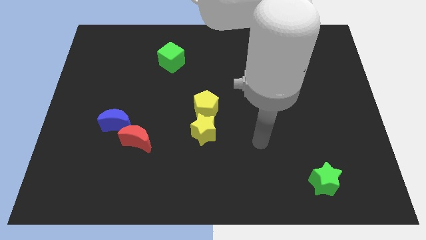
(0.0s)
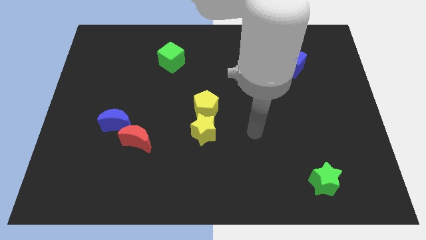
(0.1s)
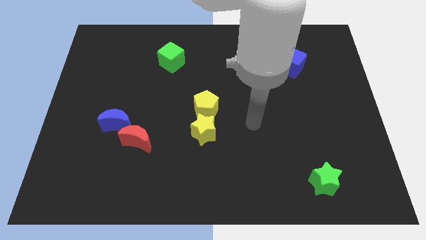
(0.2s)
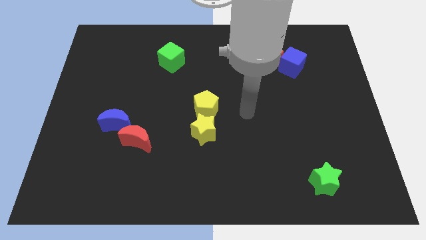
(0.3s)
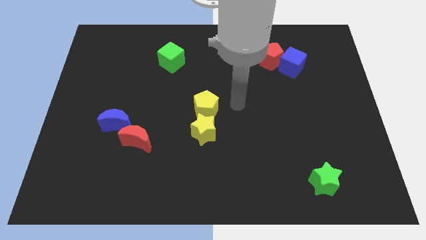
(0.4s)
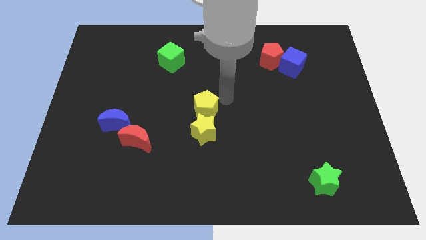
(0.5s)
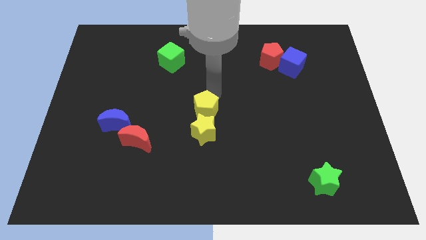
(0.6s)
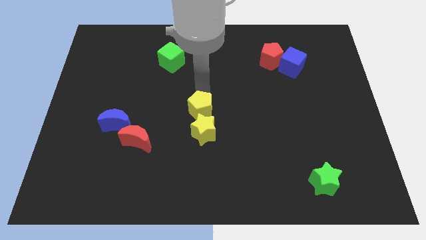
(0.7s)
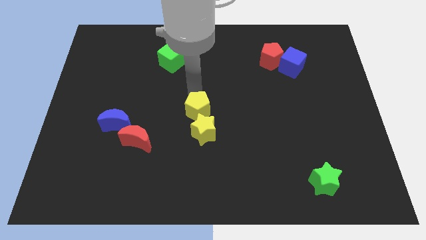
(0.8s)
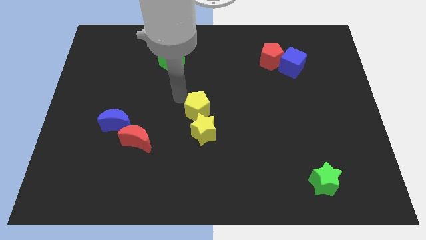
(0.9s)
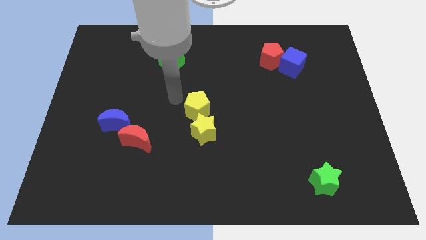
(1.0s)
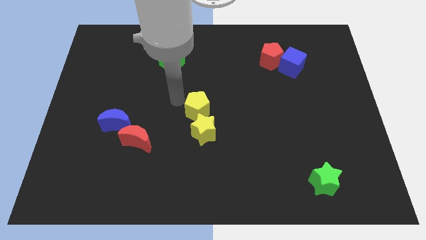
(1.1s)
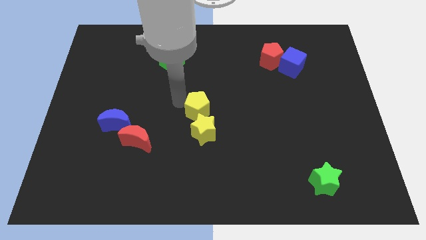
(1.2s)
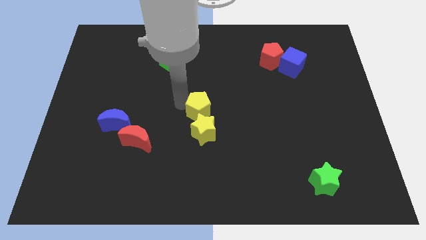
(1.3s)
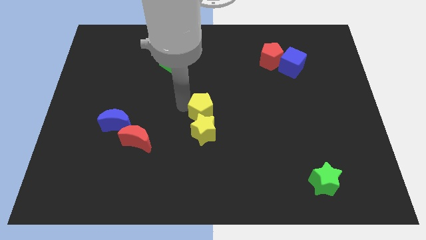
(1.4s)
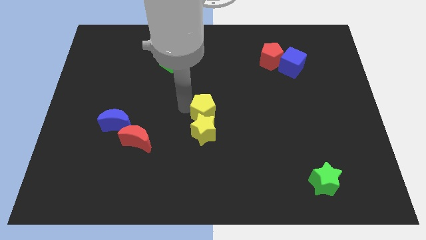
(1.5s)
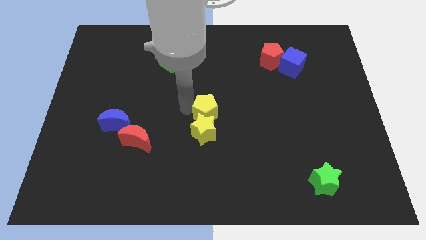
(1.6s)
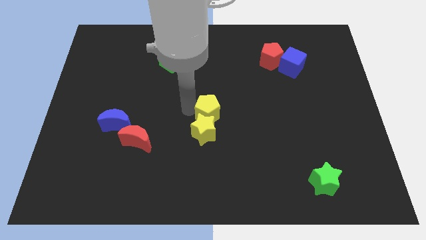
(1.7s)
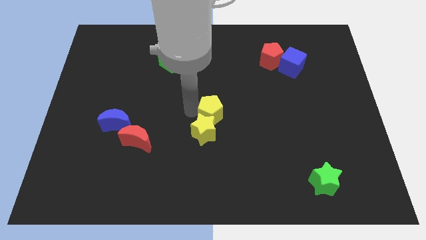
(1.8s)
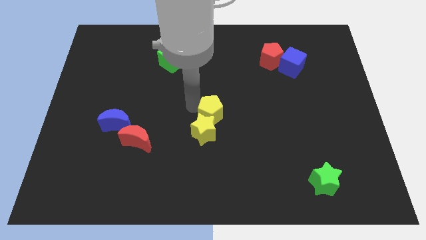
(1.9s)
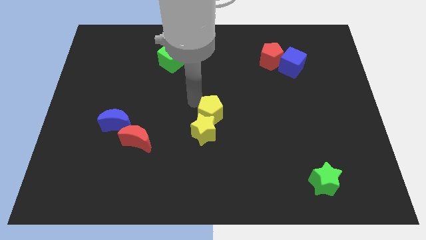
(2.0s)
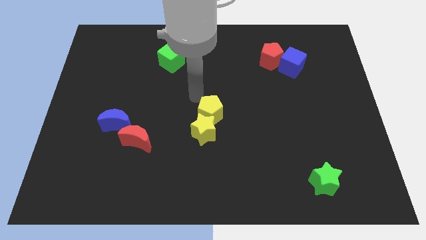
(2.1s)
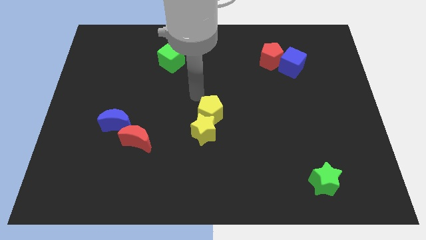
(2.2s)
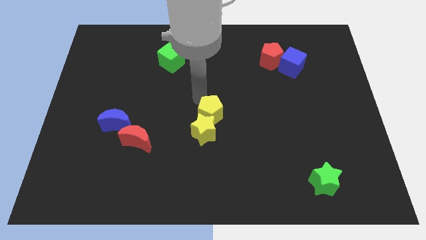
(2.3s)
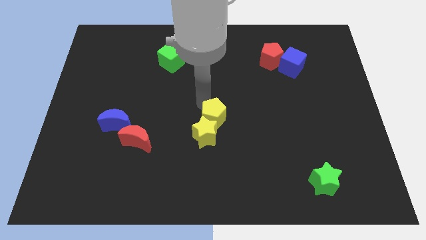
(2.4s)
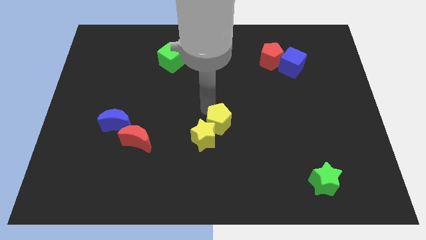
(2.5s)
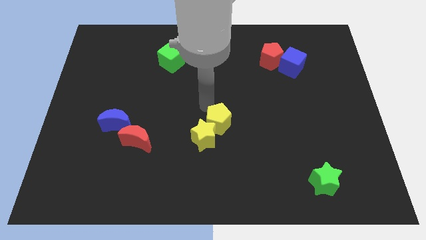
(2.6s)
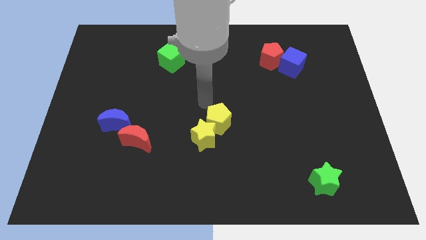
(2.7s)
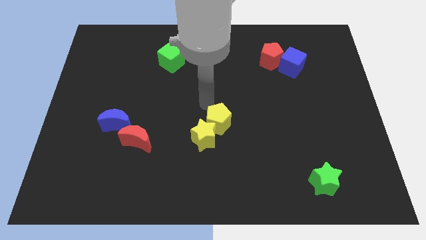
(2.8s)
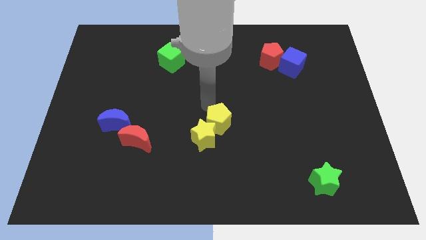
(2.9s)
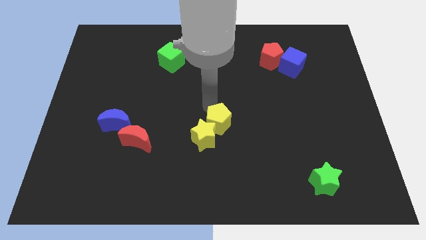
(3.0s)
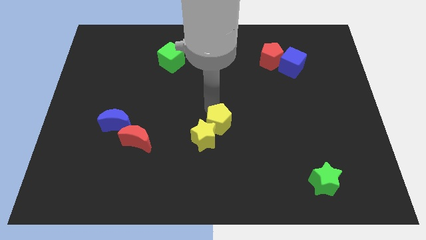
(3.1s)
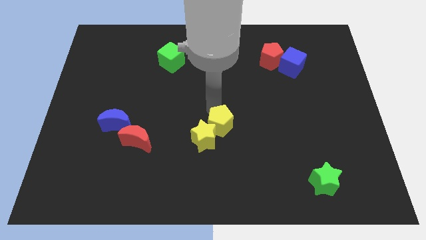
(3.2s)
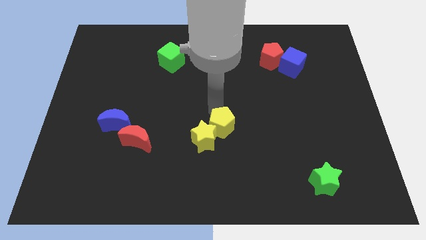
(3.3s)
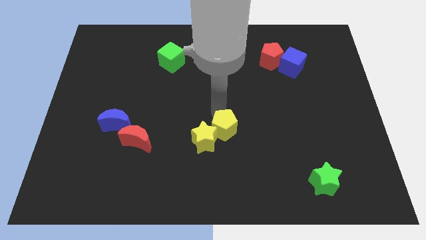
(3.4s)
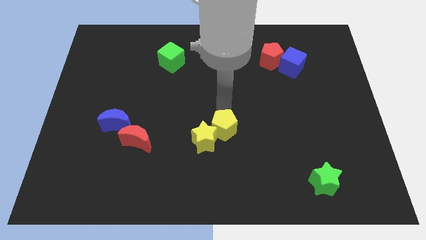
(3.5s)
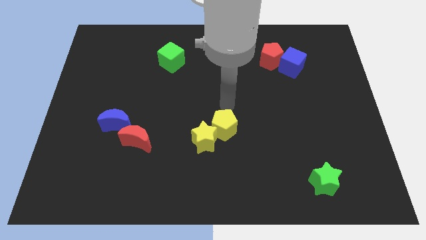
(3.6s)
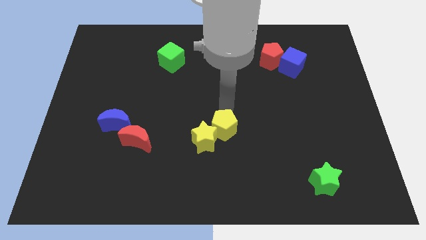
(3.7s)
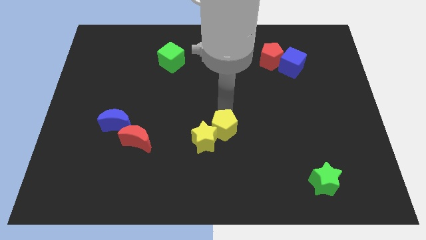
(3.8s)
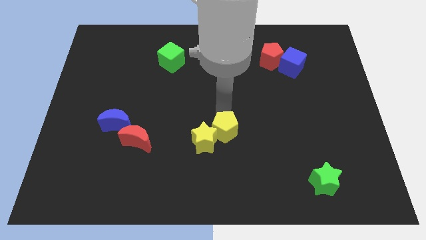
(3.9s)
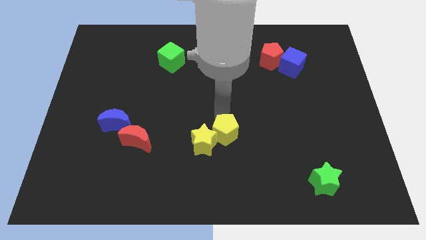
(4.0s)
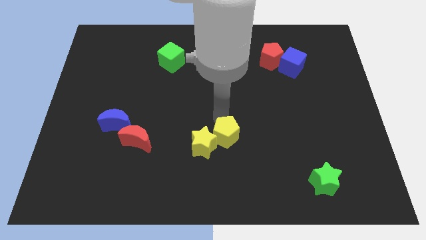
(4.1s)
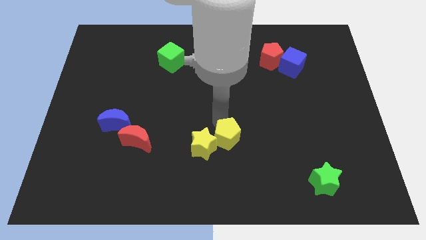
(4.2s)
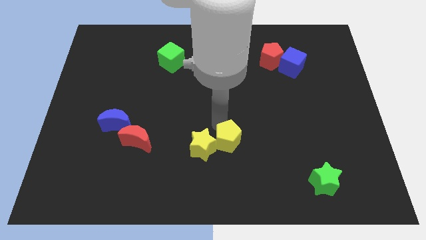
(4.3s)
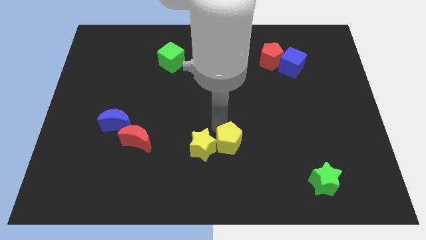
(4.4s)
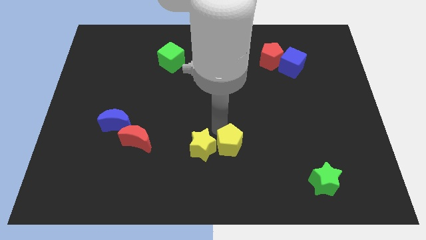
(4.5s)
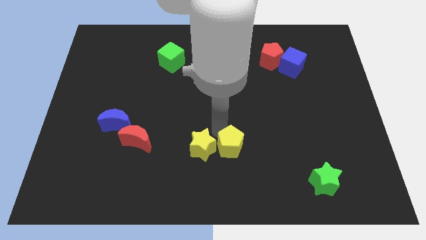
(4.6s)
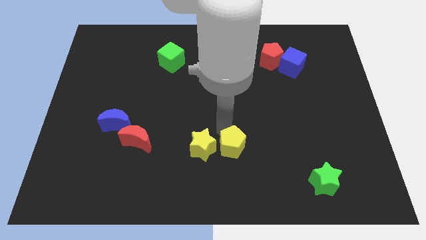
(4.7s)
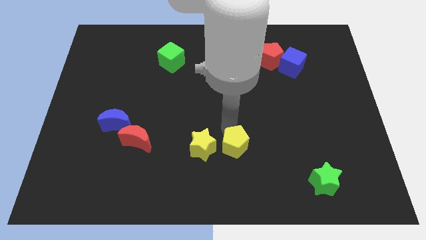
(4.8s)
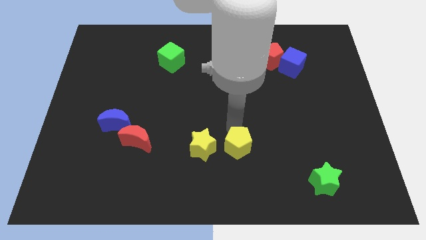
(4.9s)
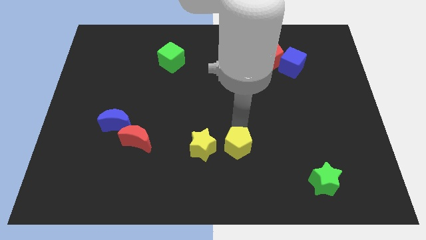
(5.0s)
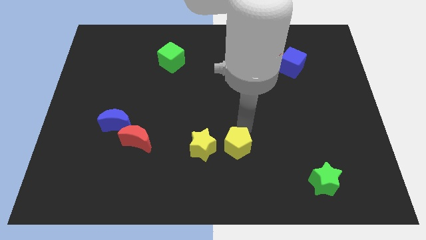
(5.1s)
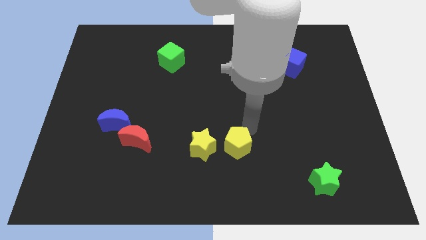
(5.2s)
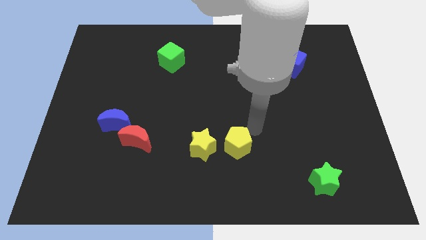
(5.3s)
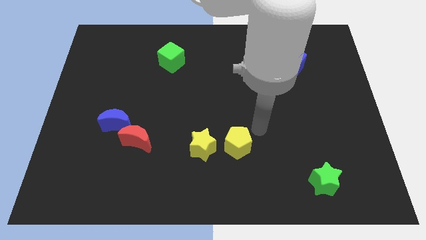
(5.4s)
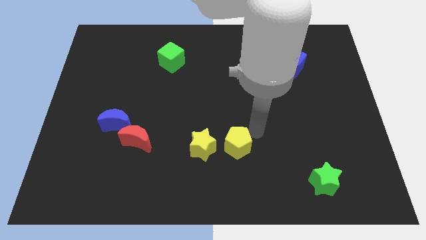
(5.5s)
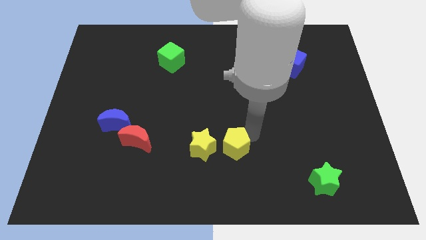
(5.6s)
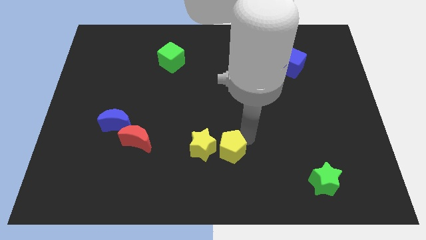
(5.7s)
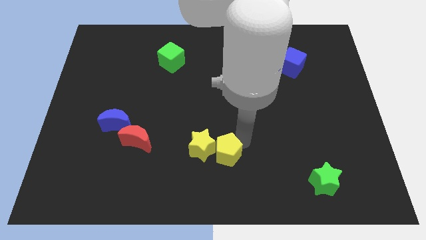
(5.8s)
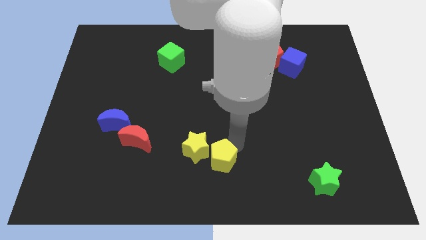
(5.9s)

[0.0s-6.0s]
move the yellow pentagon to the bottom side

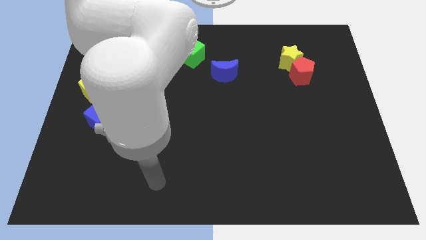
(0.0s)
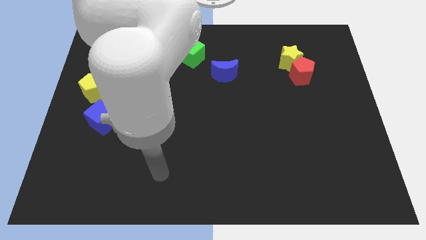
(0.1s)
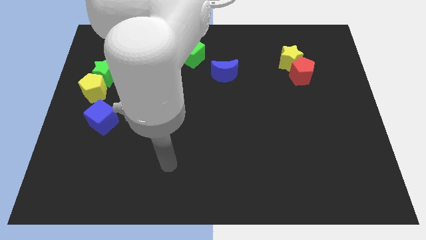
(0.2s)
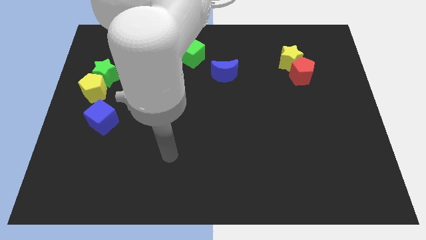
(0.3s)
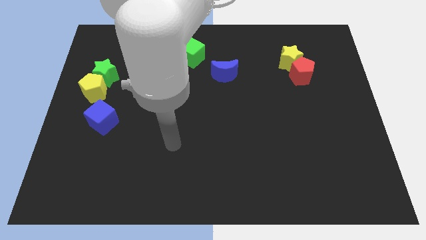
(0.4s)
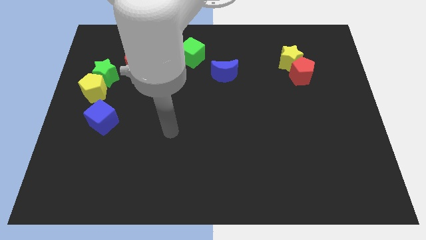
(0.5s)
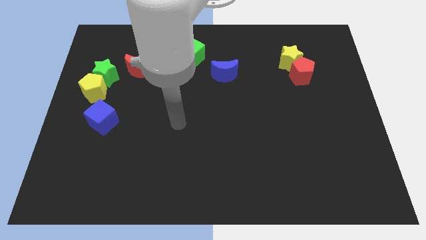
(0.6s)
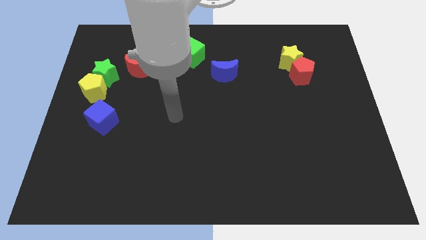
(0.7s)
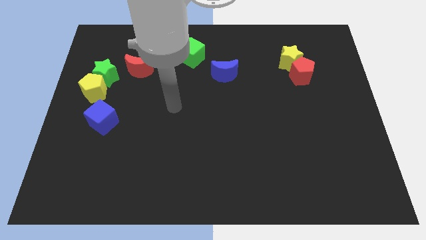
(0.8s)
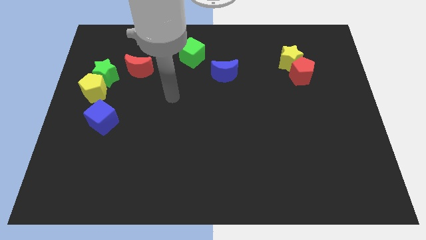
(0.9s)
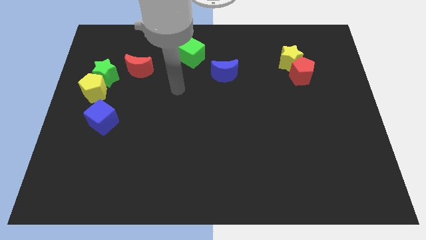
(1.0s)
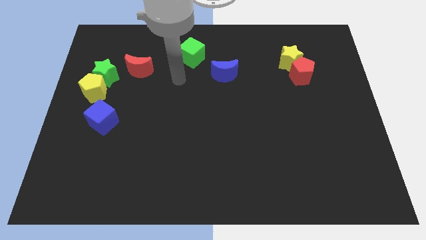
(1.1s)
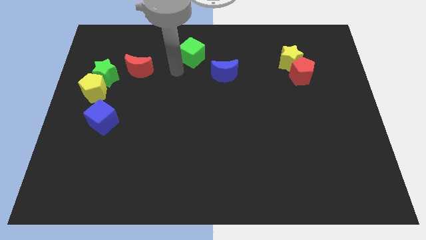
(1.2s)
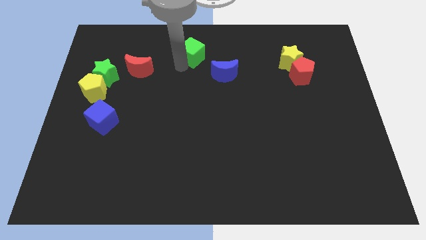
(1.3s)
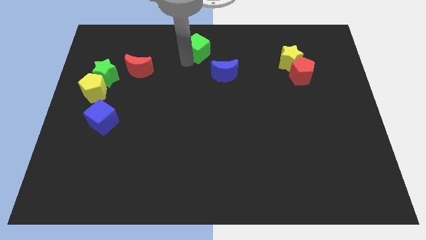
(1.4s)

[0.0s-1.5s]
move the green cube to the towards your base
